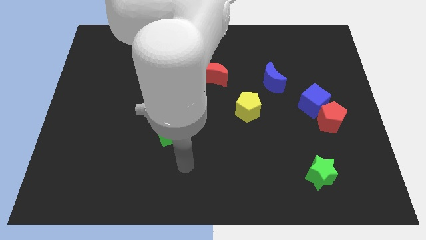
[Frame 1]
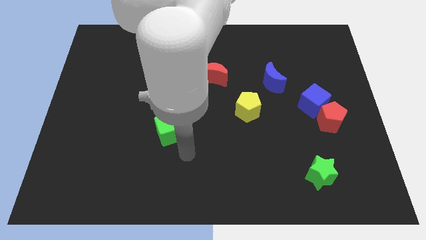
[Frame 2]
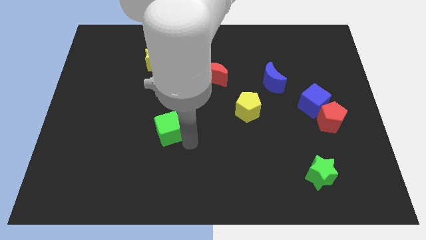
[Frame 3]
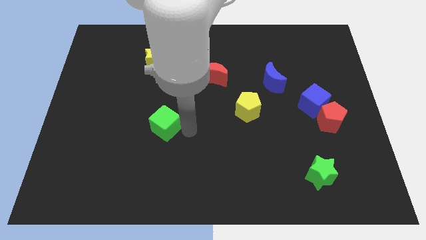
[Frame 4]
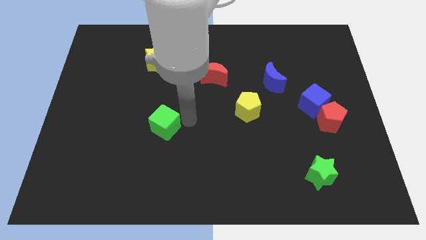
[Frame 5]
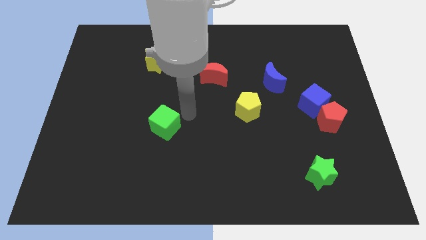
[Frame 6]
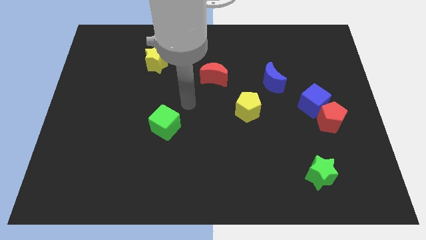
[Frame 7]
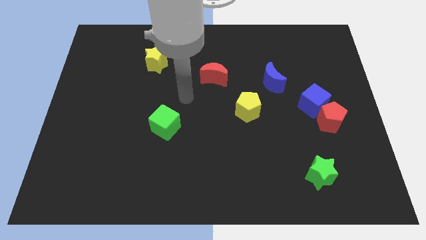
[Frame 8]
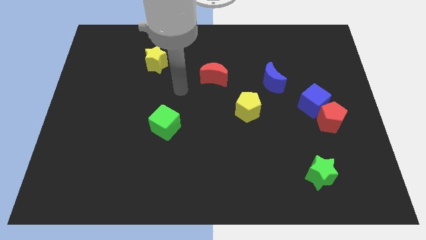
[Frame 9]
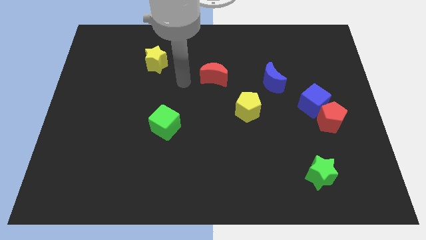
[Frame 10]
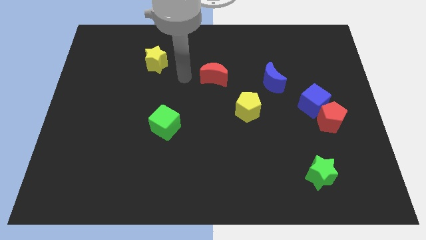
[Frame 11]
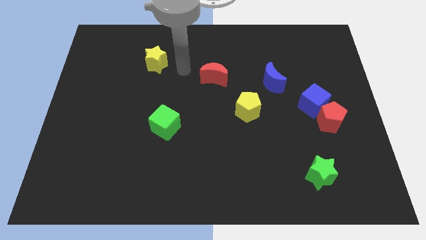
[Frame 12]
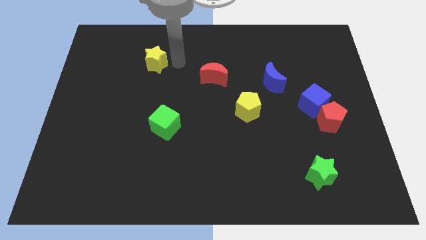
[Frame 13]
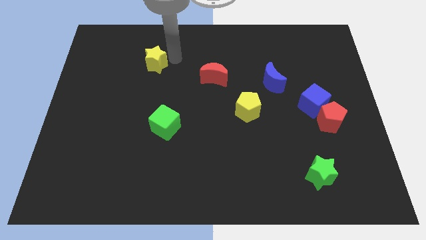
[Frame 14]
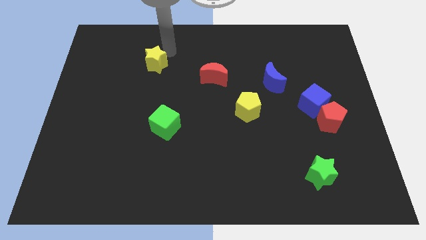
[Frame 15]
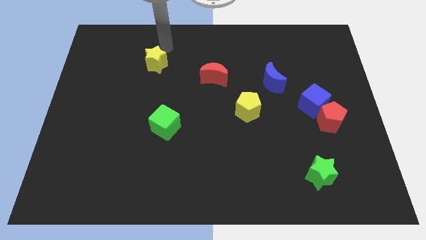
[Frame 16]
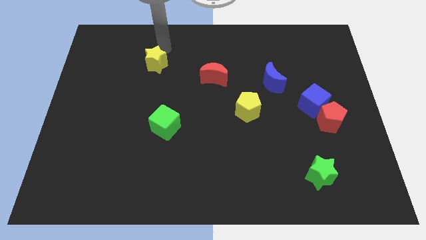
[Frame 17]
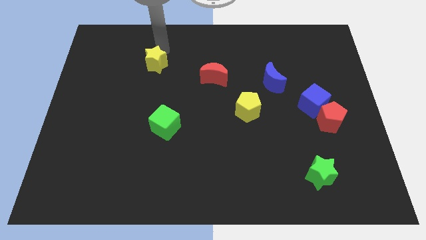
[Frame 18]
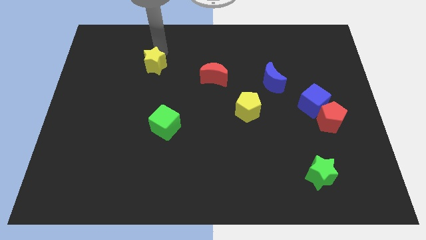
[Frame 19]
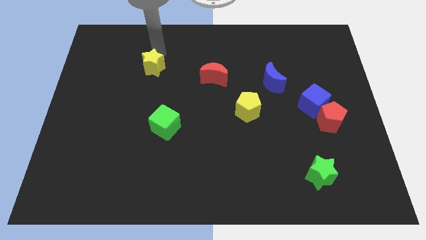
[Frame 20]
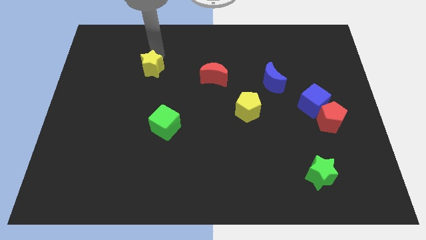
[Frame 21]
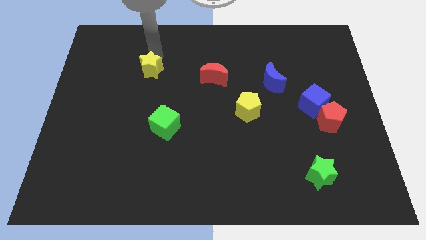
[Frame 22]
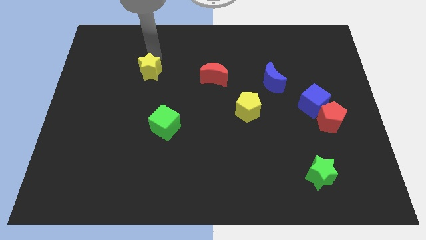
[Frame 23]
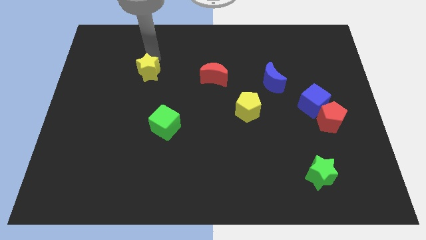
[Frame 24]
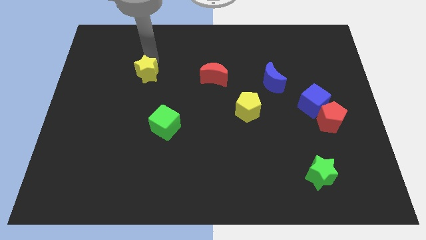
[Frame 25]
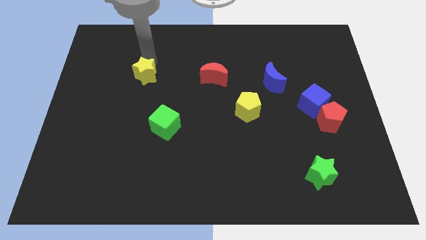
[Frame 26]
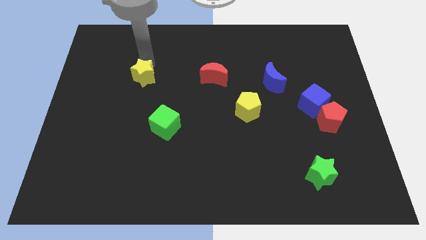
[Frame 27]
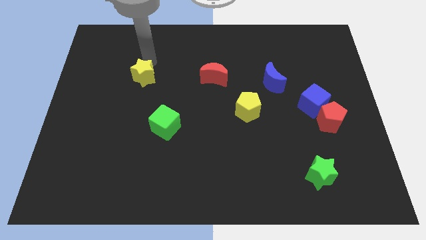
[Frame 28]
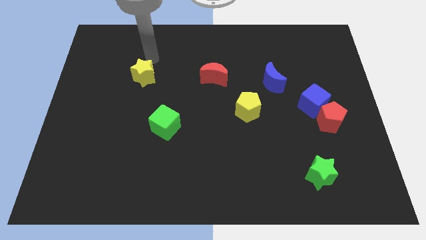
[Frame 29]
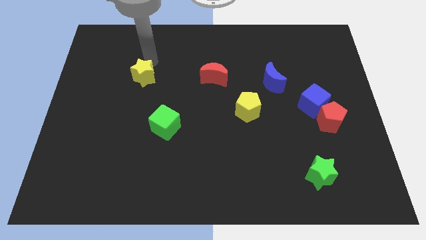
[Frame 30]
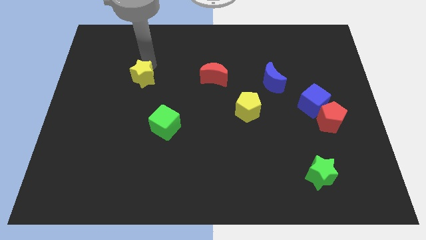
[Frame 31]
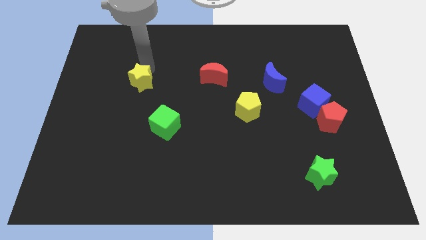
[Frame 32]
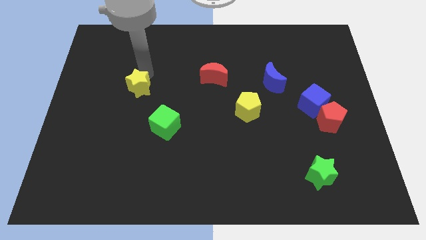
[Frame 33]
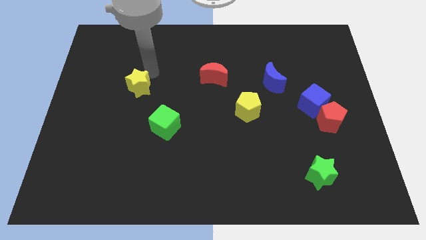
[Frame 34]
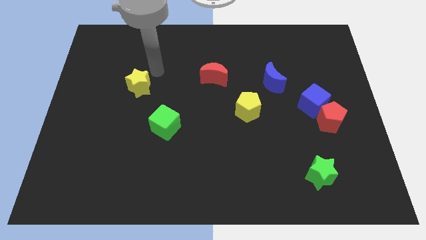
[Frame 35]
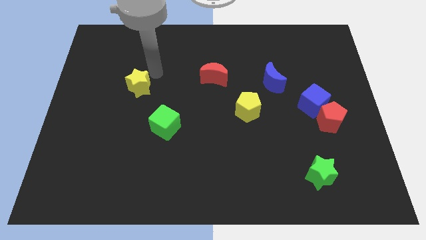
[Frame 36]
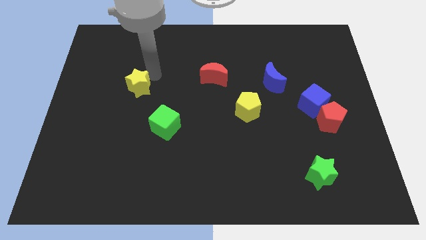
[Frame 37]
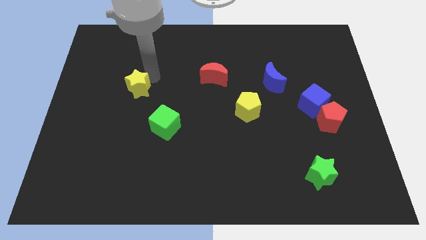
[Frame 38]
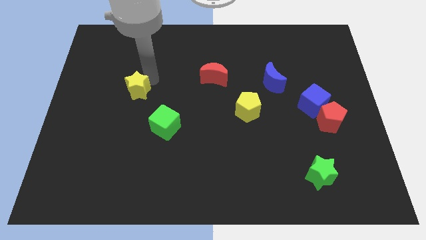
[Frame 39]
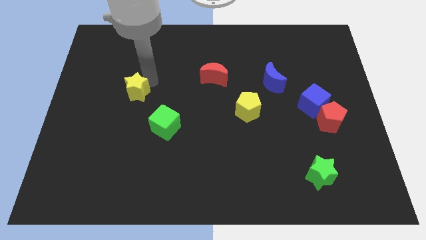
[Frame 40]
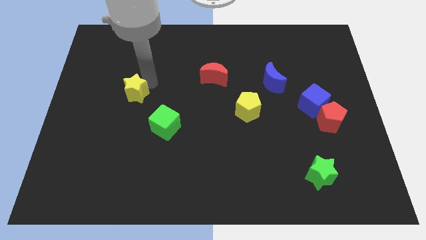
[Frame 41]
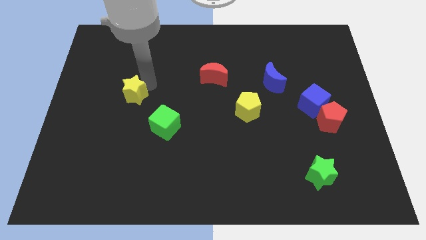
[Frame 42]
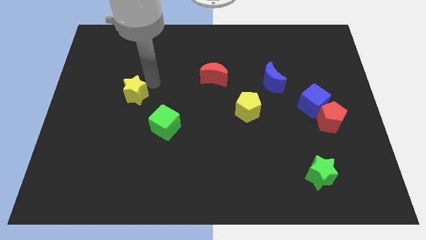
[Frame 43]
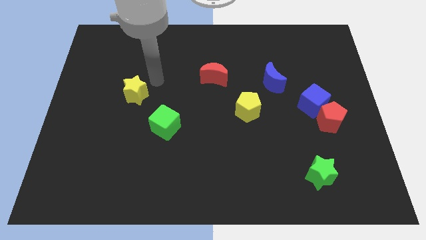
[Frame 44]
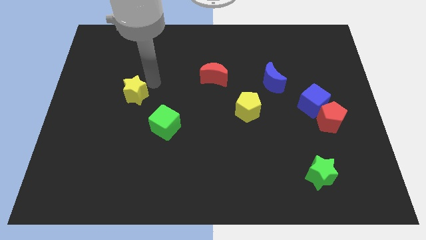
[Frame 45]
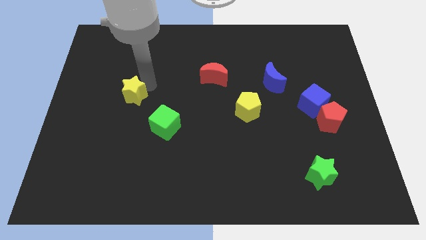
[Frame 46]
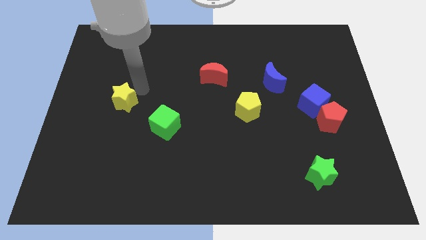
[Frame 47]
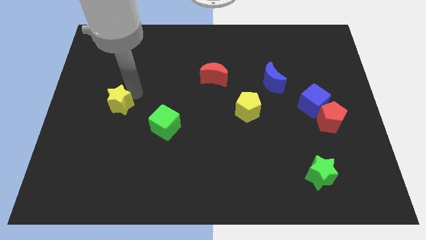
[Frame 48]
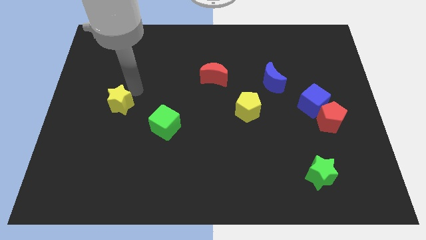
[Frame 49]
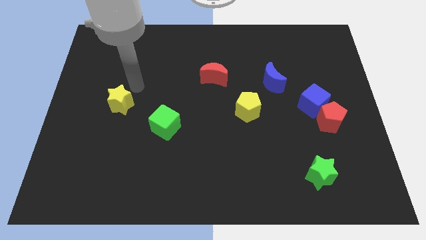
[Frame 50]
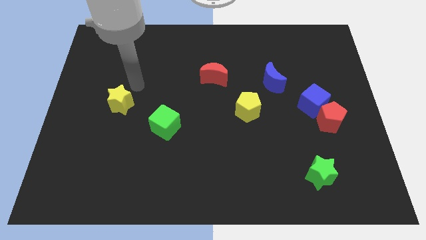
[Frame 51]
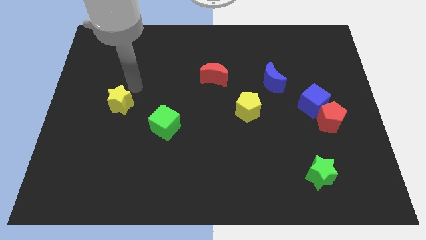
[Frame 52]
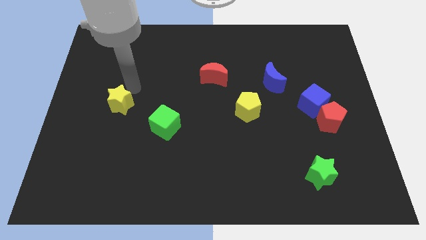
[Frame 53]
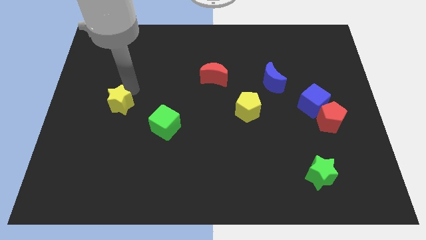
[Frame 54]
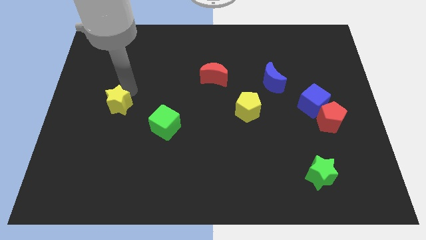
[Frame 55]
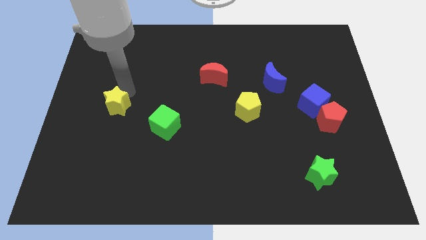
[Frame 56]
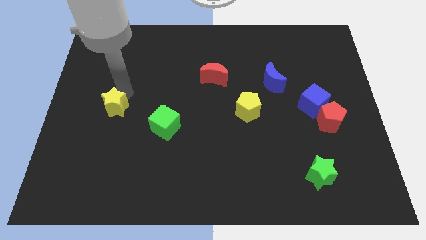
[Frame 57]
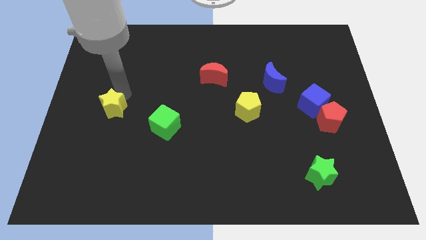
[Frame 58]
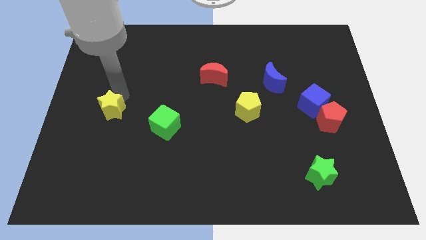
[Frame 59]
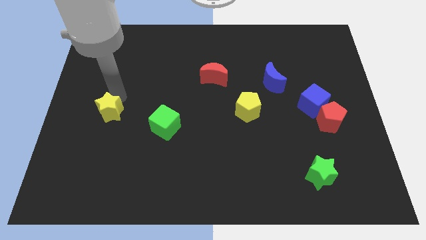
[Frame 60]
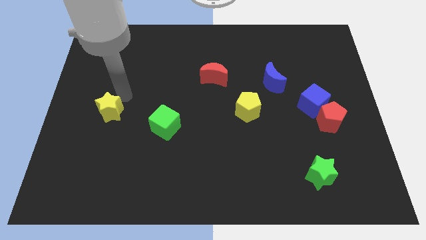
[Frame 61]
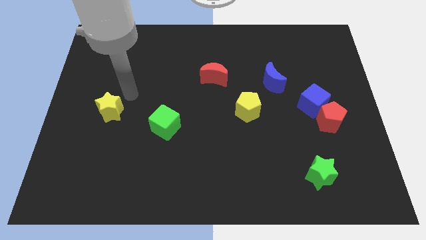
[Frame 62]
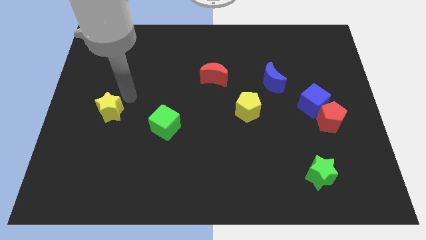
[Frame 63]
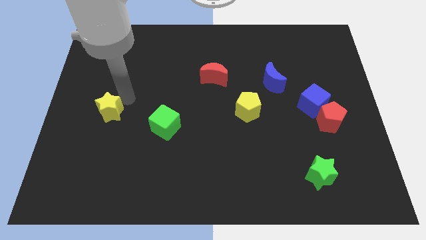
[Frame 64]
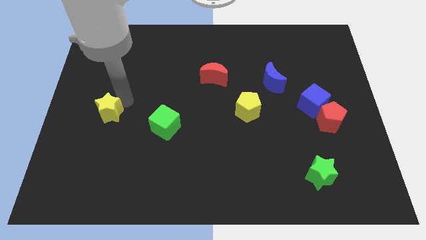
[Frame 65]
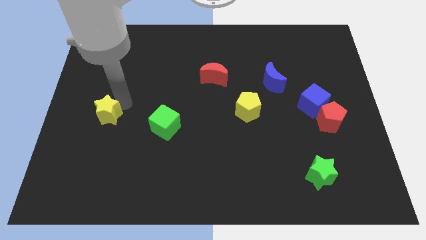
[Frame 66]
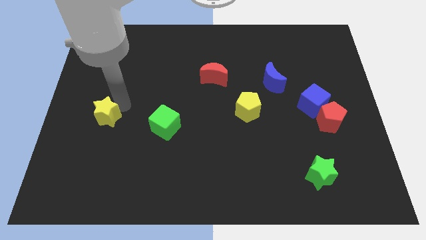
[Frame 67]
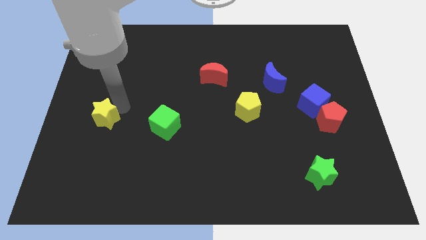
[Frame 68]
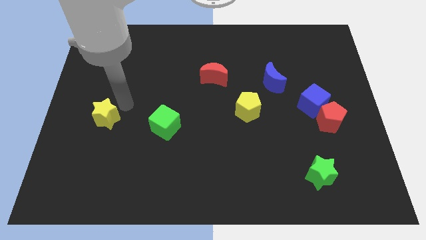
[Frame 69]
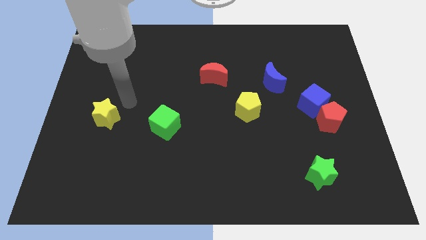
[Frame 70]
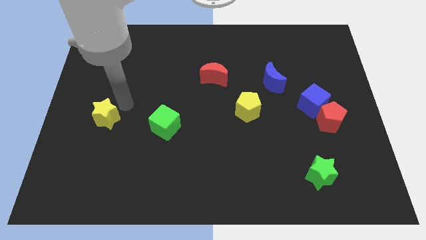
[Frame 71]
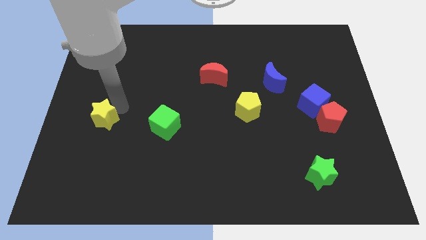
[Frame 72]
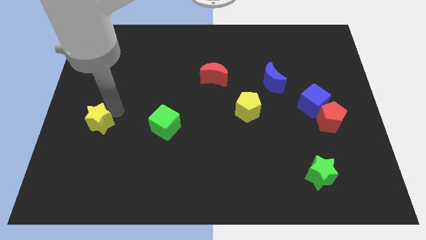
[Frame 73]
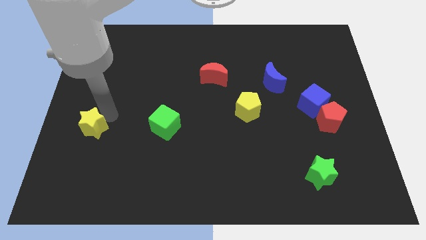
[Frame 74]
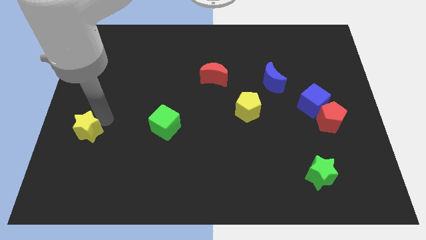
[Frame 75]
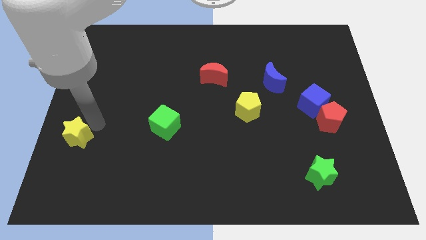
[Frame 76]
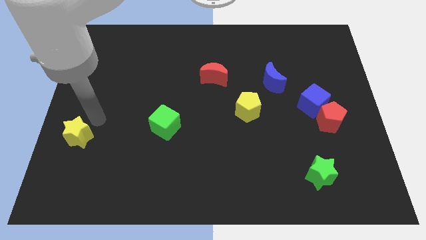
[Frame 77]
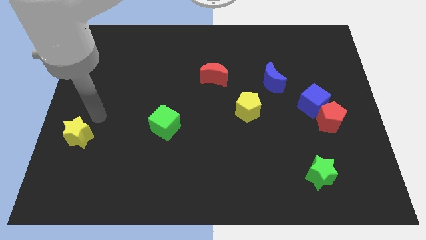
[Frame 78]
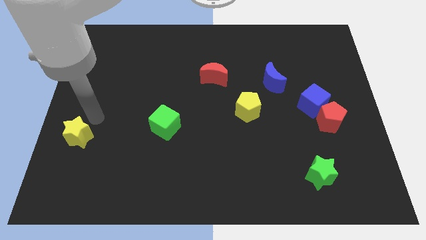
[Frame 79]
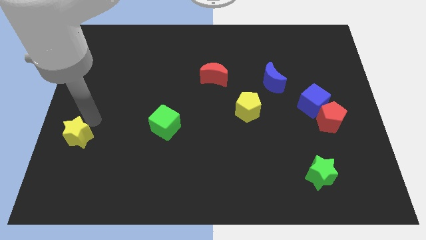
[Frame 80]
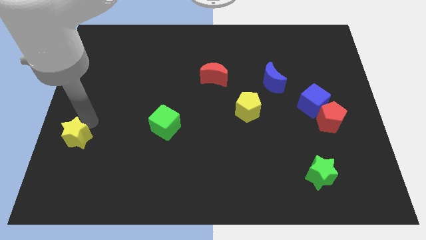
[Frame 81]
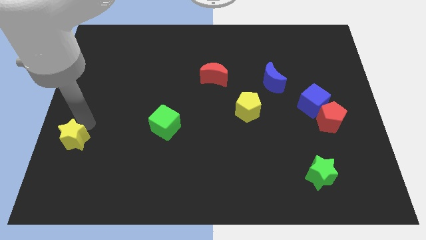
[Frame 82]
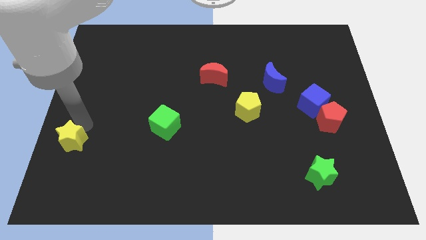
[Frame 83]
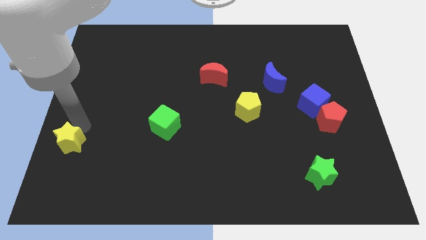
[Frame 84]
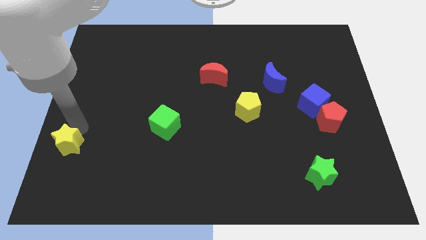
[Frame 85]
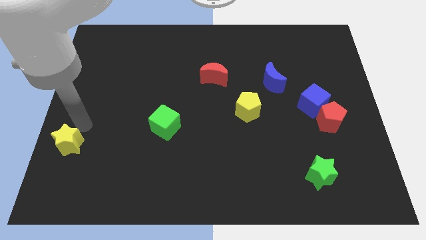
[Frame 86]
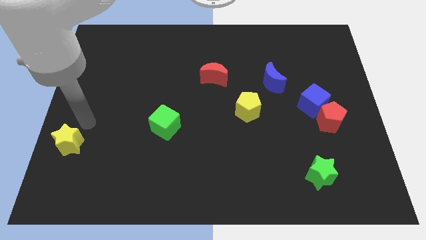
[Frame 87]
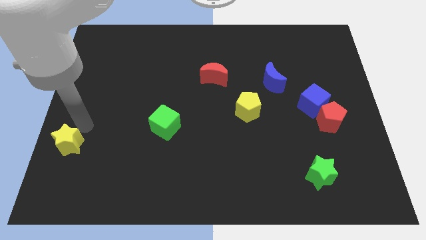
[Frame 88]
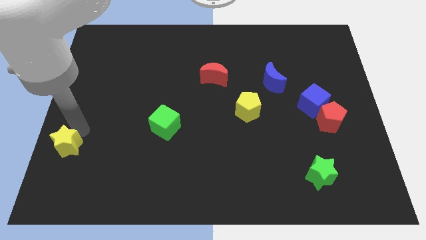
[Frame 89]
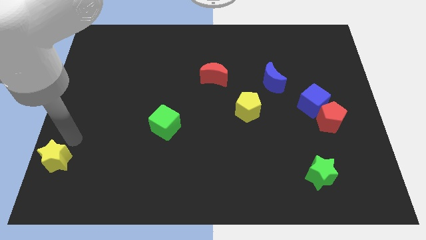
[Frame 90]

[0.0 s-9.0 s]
push the yellow star to the bottom left corner
